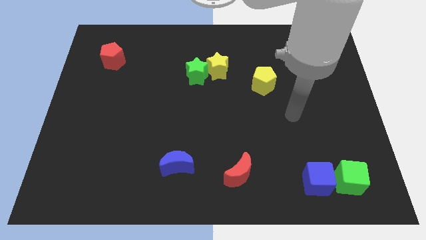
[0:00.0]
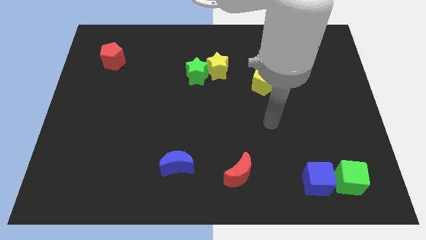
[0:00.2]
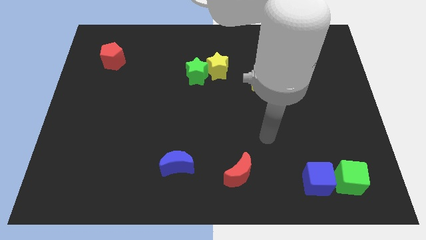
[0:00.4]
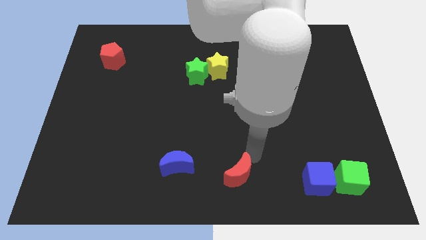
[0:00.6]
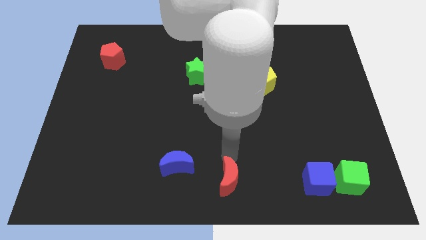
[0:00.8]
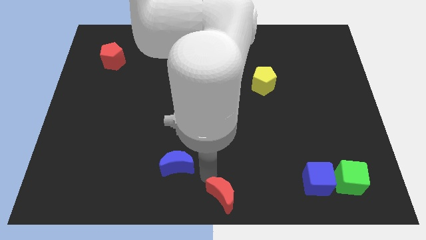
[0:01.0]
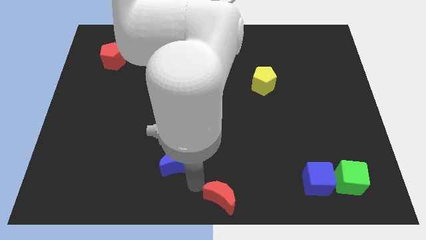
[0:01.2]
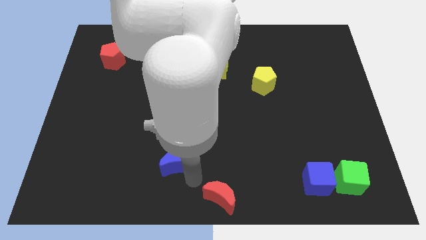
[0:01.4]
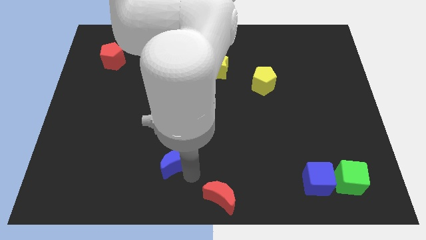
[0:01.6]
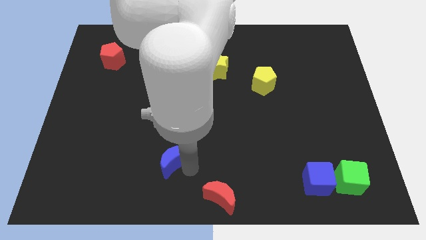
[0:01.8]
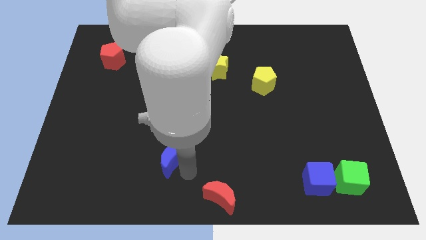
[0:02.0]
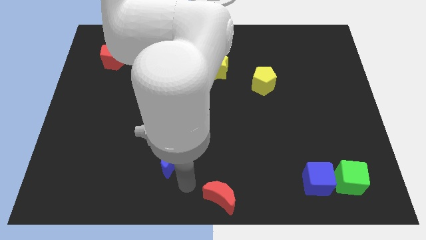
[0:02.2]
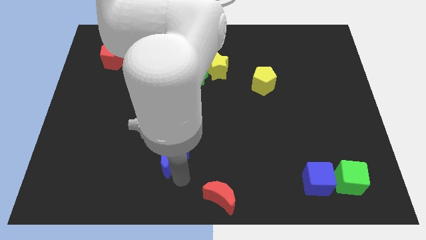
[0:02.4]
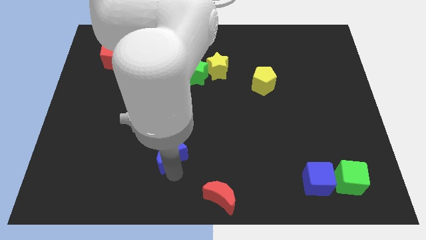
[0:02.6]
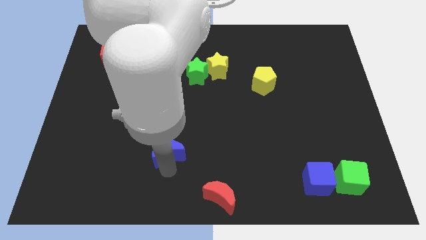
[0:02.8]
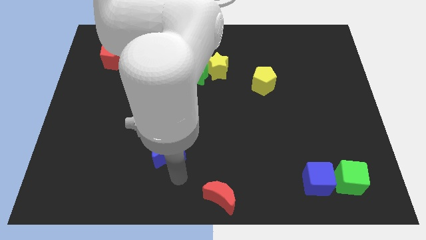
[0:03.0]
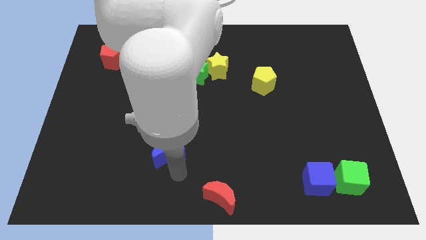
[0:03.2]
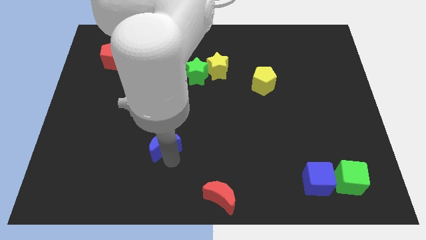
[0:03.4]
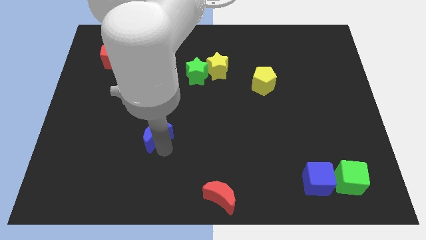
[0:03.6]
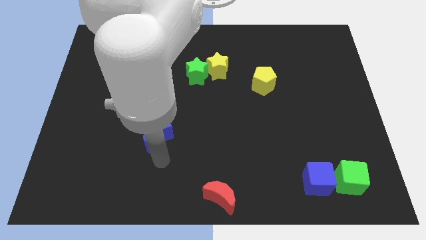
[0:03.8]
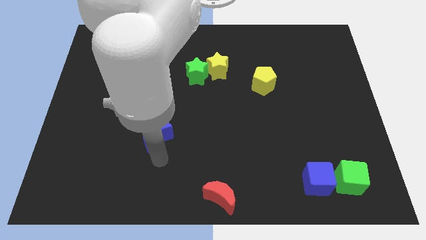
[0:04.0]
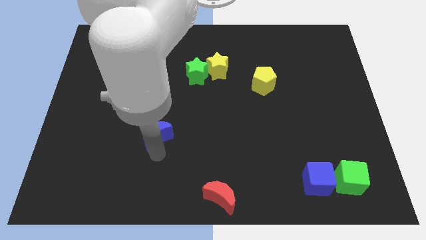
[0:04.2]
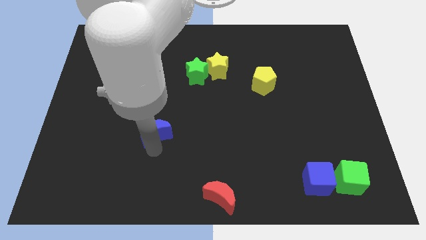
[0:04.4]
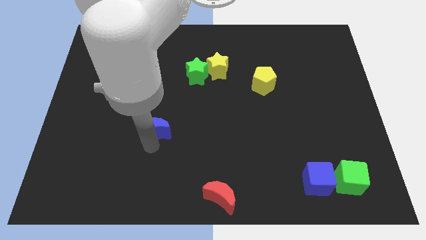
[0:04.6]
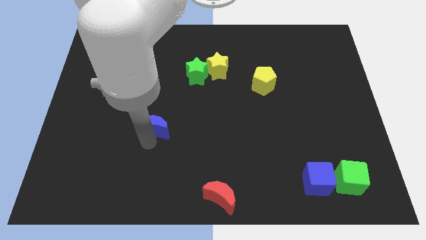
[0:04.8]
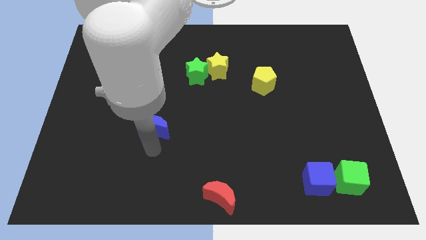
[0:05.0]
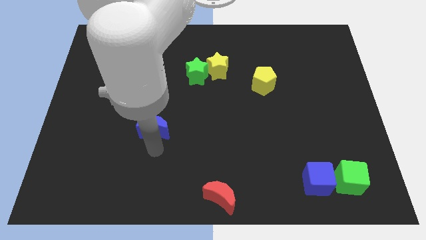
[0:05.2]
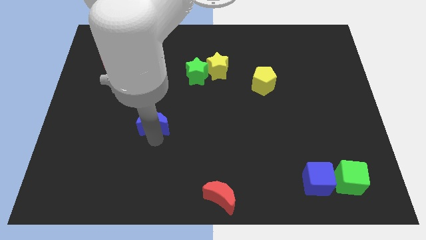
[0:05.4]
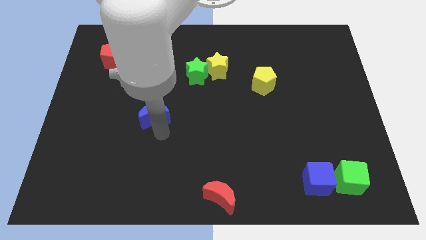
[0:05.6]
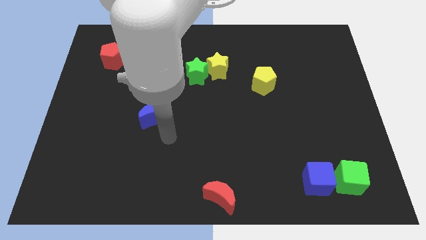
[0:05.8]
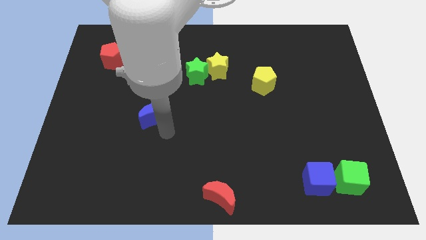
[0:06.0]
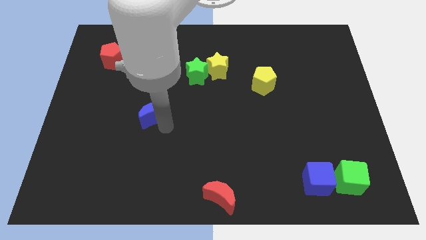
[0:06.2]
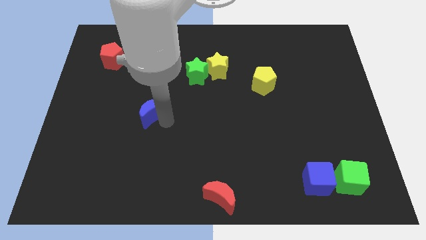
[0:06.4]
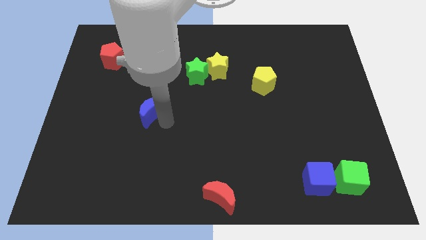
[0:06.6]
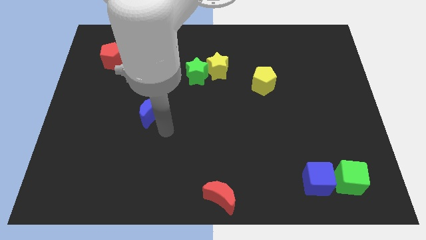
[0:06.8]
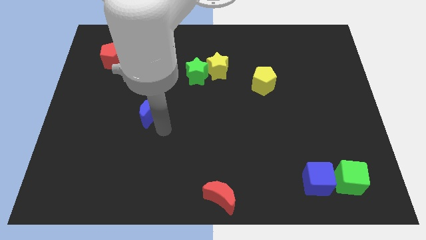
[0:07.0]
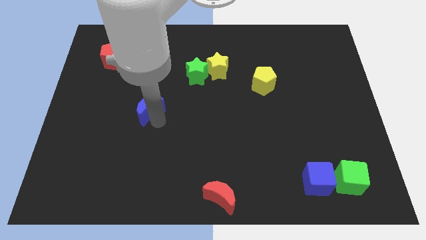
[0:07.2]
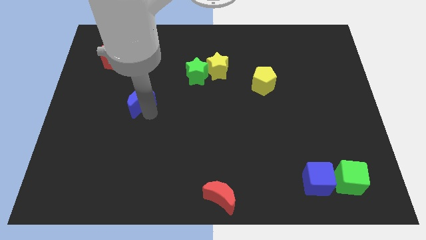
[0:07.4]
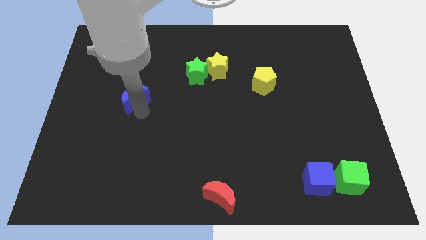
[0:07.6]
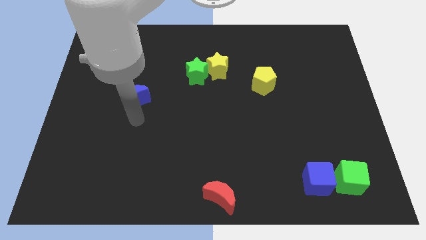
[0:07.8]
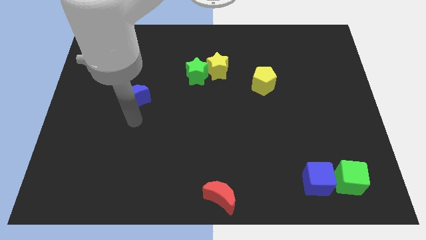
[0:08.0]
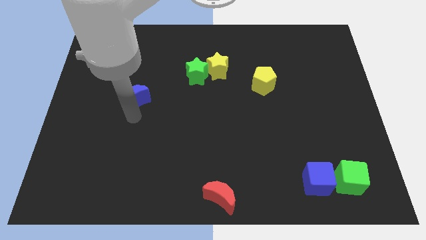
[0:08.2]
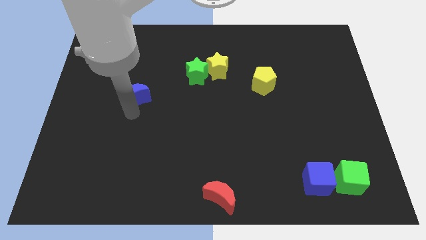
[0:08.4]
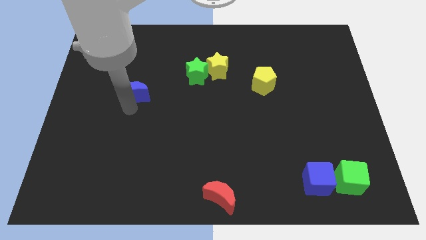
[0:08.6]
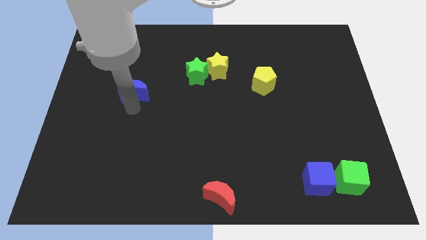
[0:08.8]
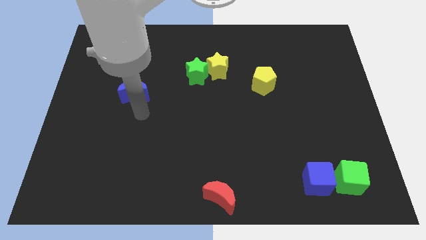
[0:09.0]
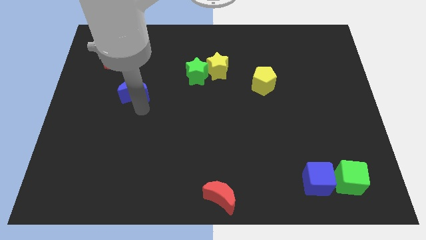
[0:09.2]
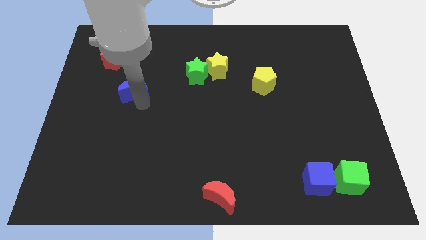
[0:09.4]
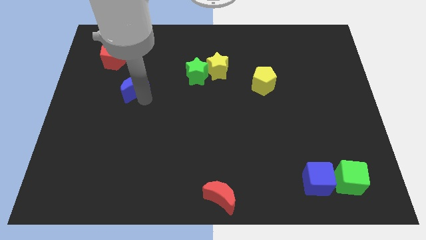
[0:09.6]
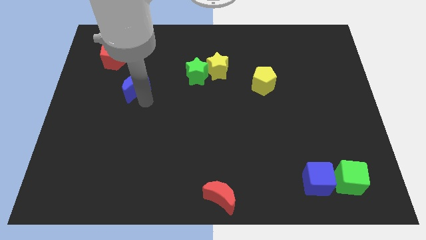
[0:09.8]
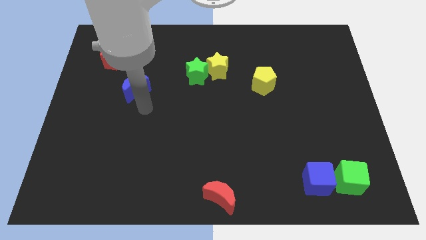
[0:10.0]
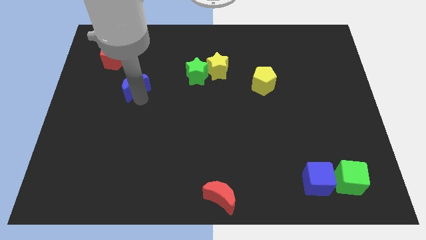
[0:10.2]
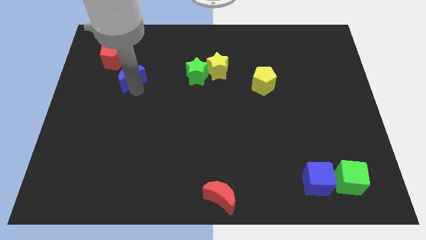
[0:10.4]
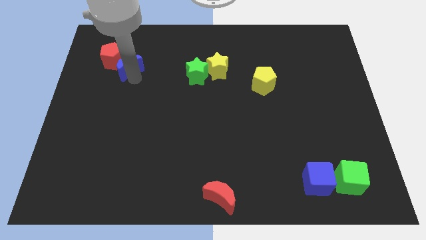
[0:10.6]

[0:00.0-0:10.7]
put the blue moon close to the red pentagon

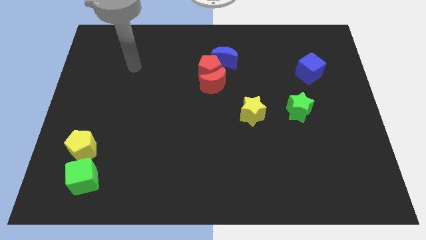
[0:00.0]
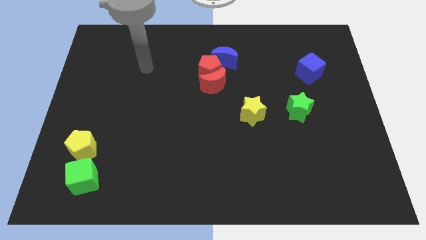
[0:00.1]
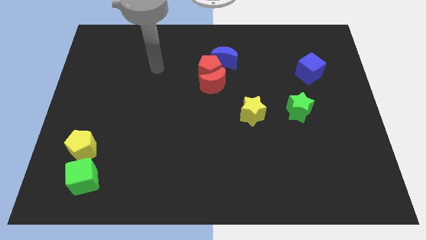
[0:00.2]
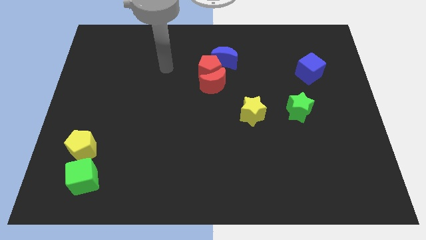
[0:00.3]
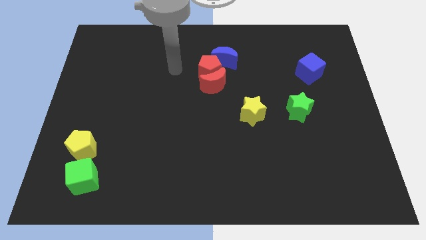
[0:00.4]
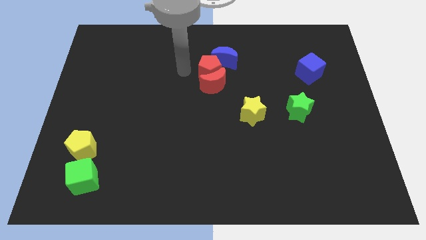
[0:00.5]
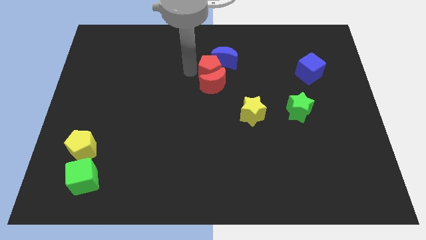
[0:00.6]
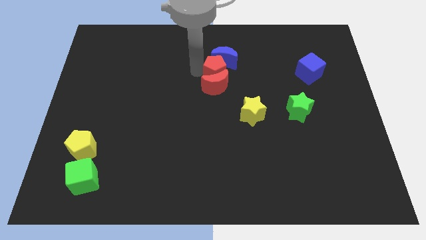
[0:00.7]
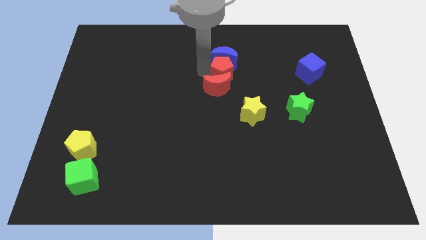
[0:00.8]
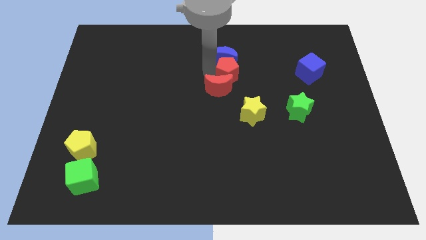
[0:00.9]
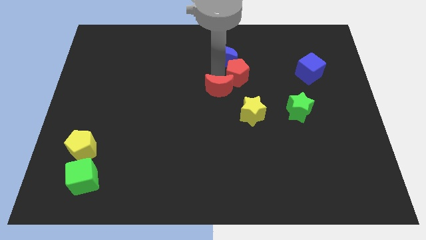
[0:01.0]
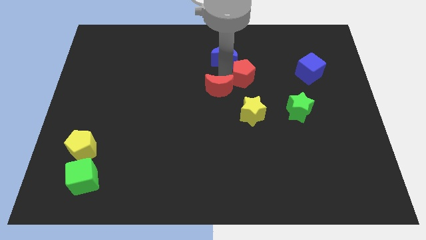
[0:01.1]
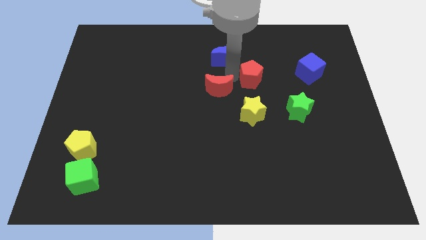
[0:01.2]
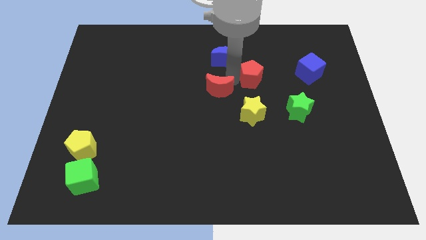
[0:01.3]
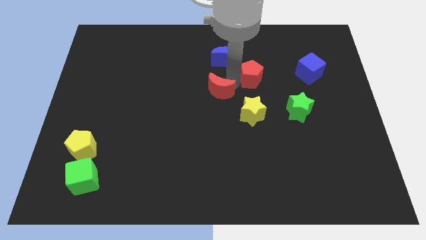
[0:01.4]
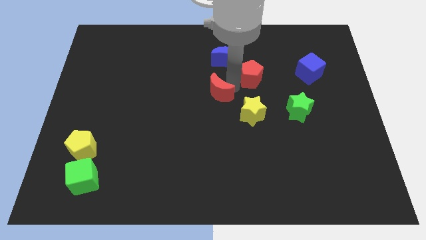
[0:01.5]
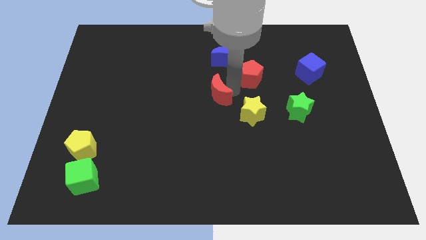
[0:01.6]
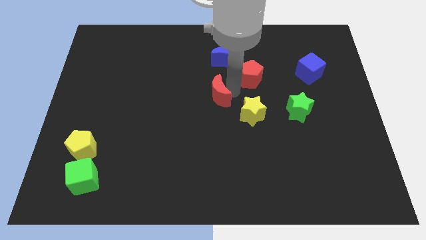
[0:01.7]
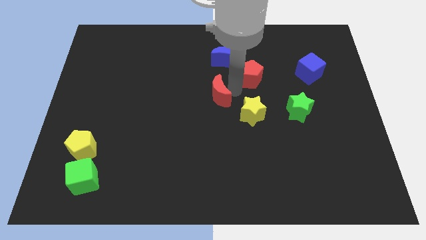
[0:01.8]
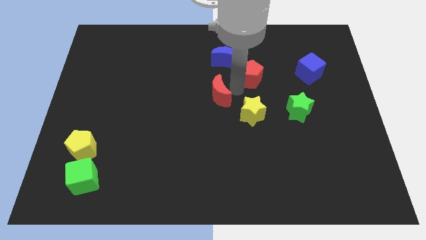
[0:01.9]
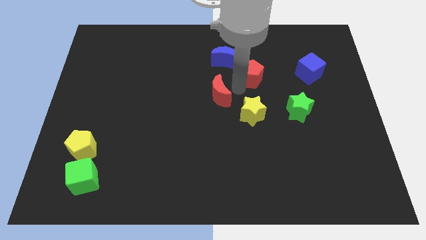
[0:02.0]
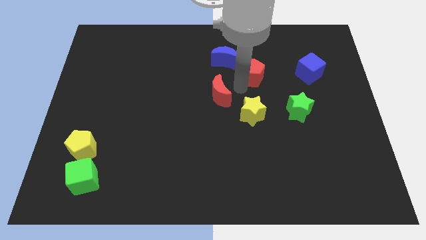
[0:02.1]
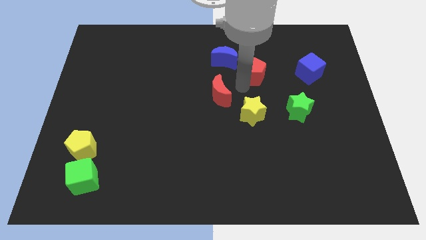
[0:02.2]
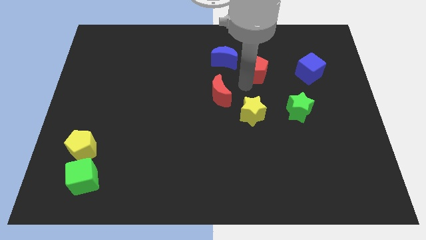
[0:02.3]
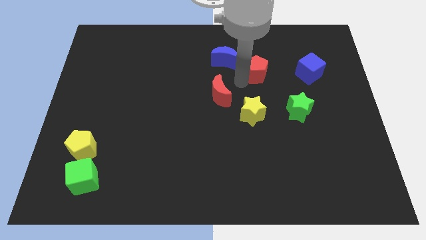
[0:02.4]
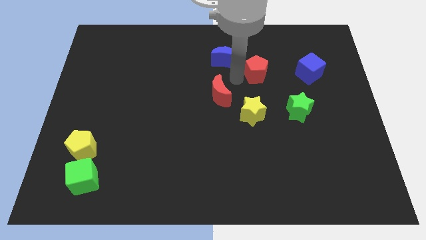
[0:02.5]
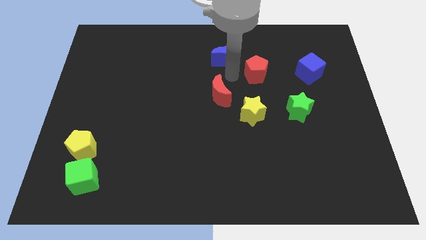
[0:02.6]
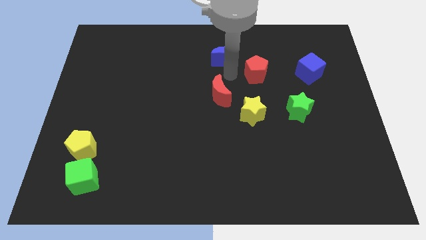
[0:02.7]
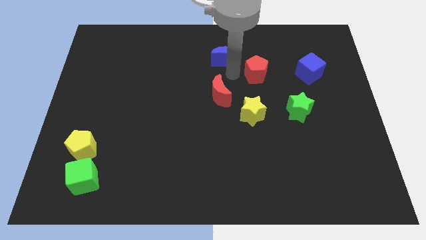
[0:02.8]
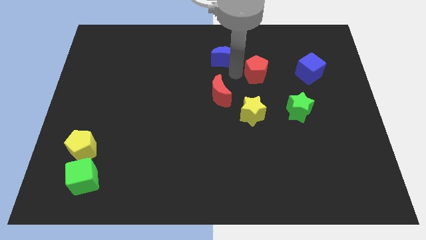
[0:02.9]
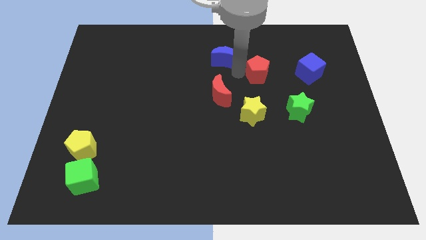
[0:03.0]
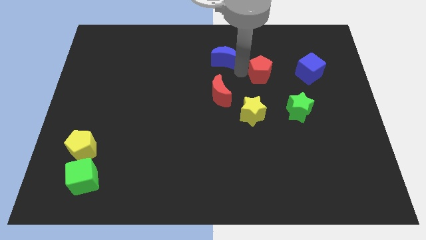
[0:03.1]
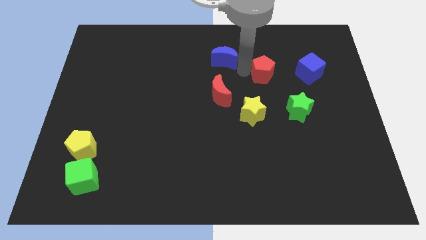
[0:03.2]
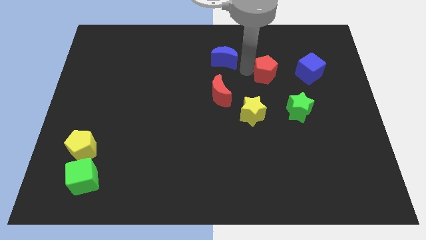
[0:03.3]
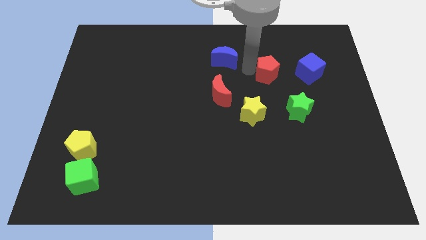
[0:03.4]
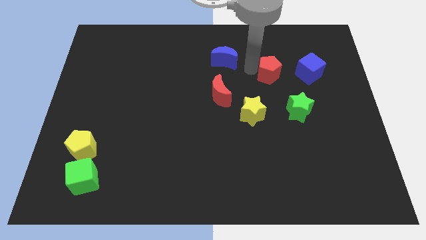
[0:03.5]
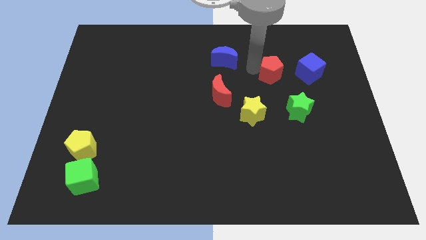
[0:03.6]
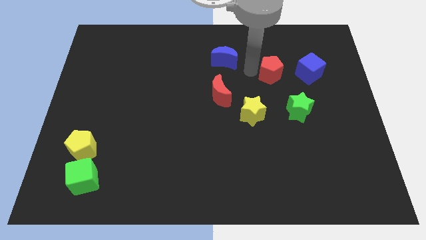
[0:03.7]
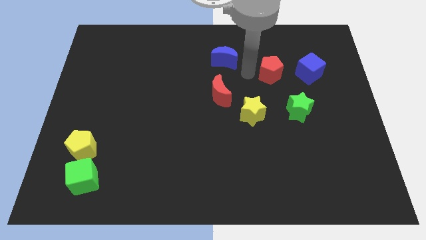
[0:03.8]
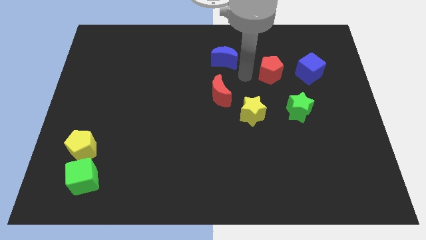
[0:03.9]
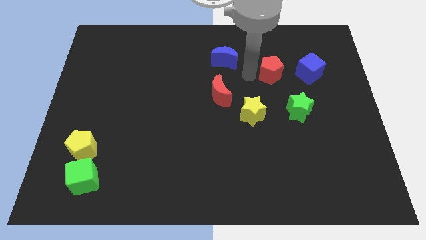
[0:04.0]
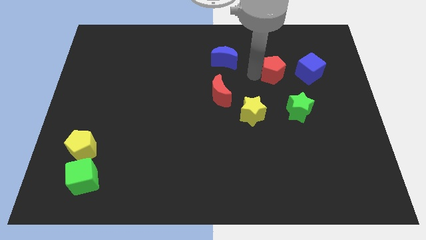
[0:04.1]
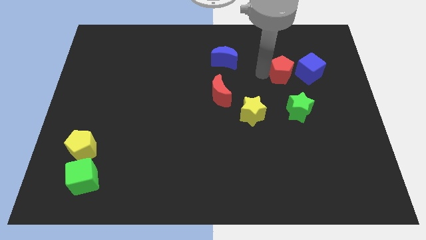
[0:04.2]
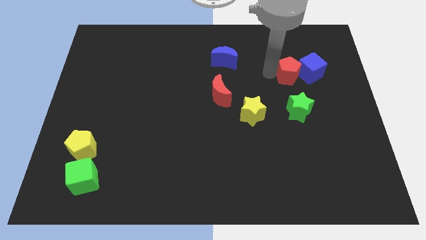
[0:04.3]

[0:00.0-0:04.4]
push the red pentagon next to the blue cube
